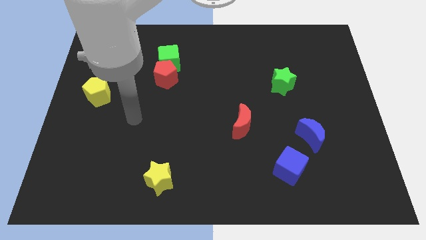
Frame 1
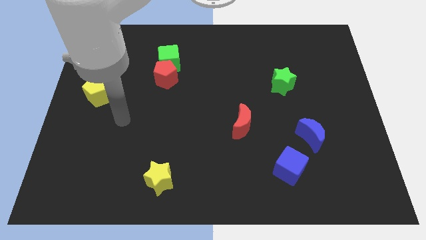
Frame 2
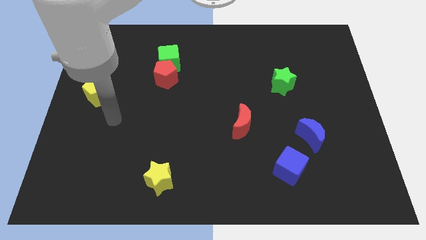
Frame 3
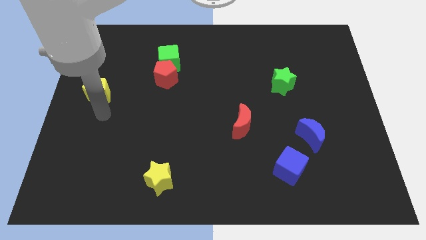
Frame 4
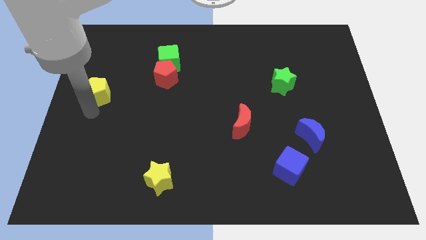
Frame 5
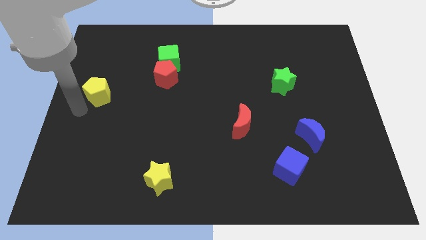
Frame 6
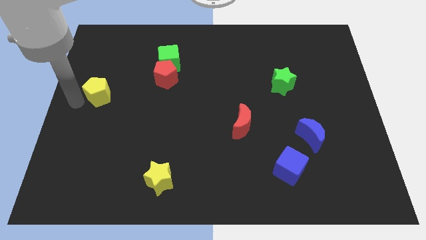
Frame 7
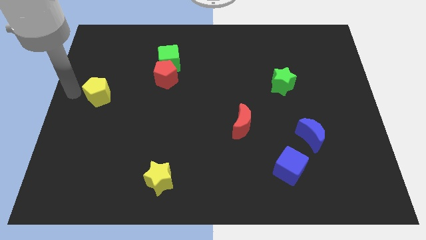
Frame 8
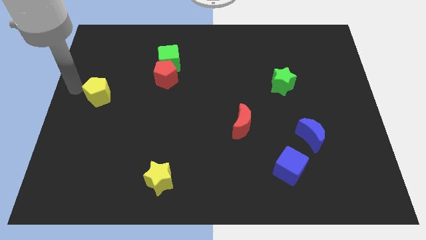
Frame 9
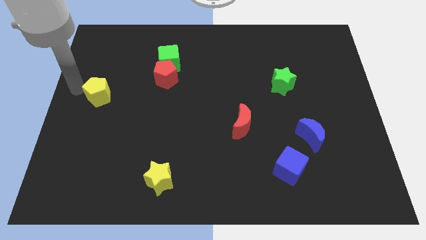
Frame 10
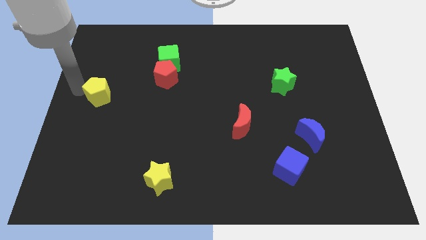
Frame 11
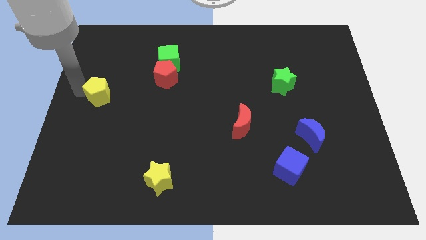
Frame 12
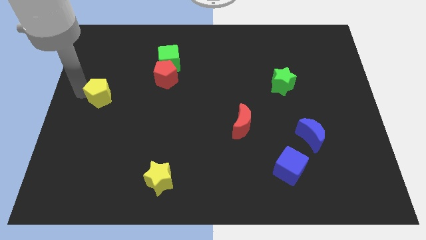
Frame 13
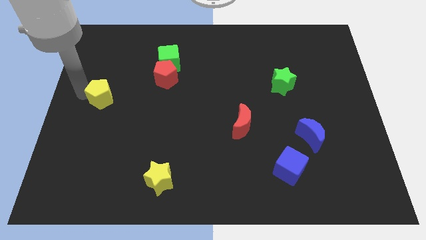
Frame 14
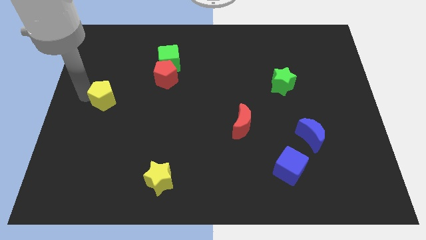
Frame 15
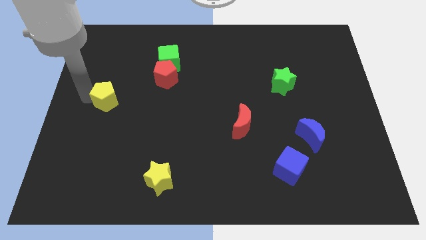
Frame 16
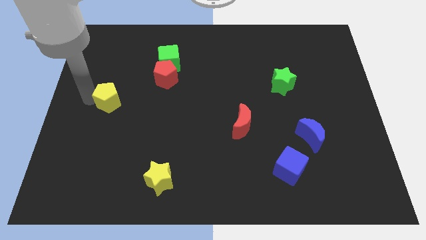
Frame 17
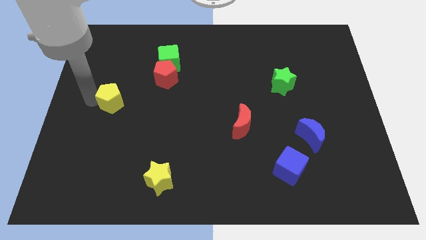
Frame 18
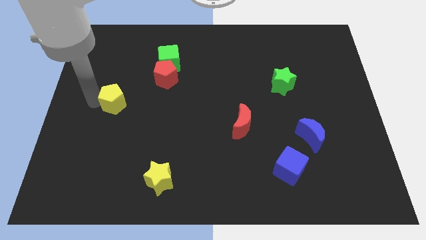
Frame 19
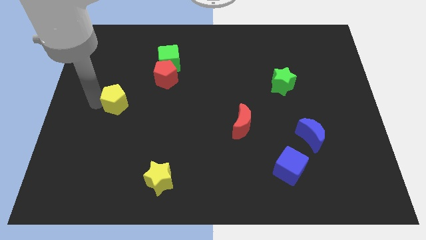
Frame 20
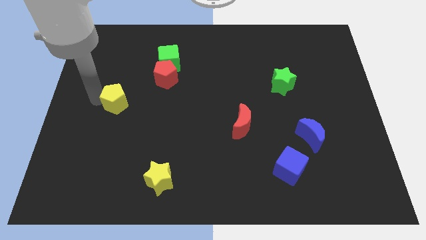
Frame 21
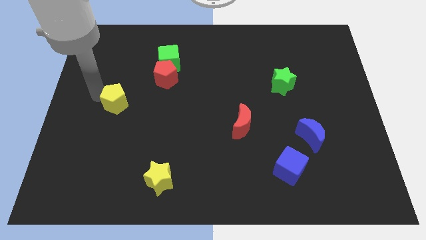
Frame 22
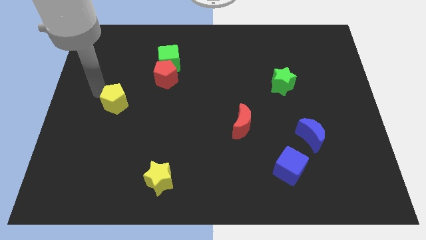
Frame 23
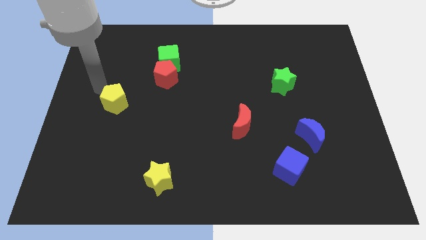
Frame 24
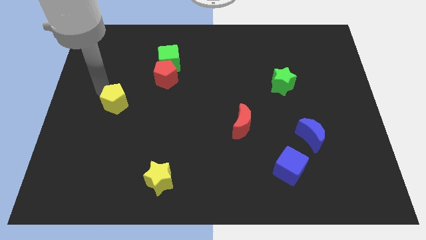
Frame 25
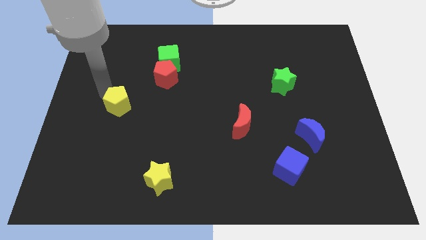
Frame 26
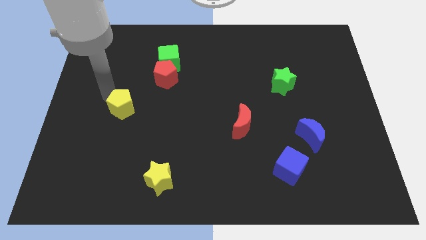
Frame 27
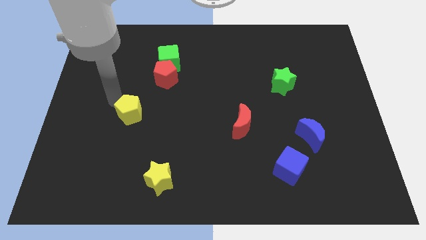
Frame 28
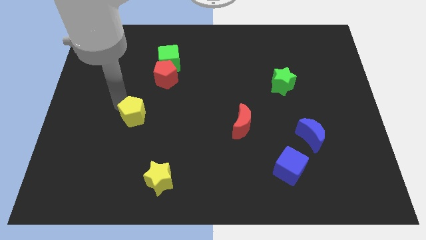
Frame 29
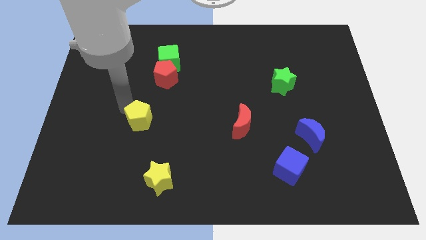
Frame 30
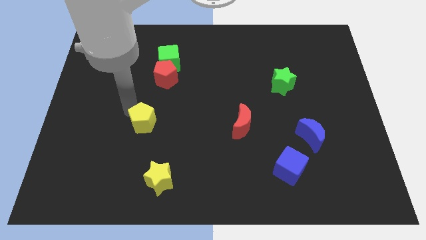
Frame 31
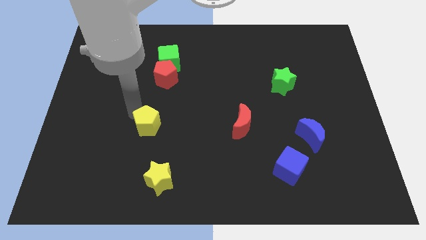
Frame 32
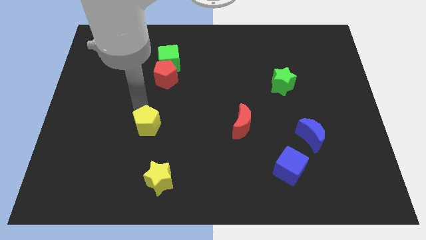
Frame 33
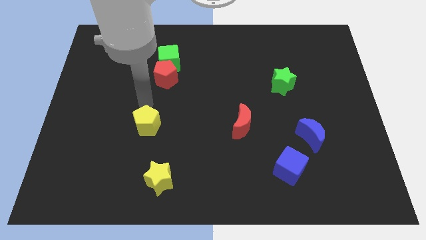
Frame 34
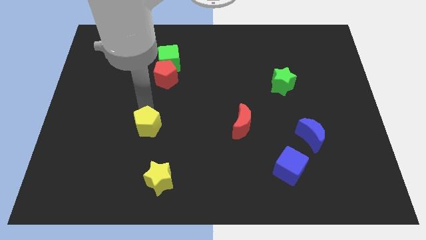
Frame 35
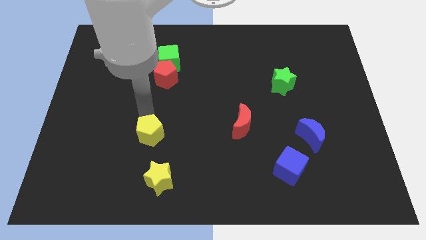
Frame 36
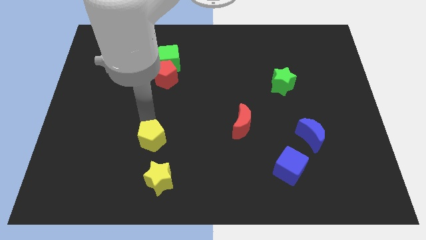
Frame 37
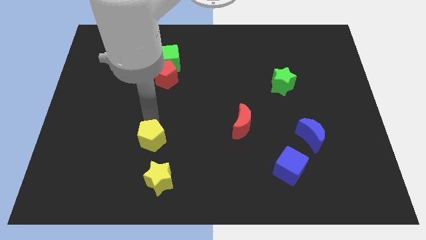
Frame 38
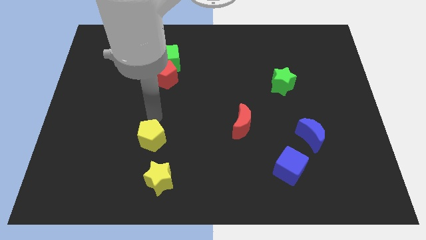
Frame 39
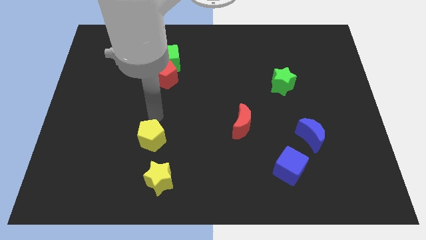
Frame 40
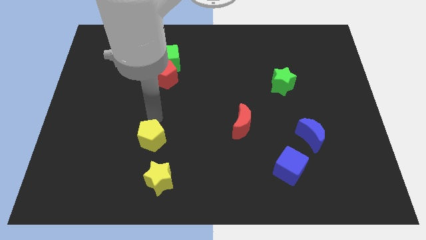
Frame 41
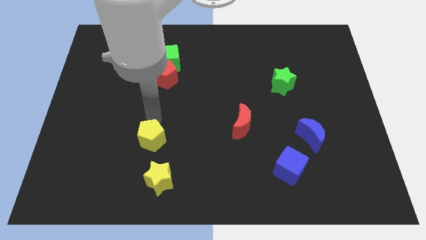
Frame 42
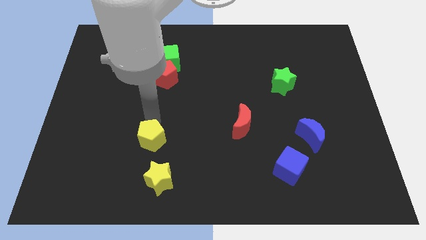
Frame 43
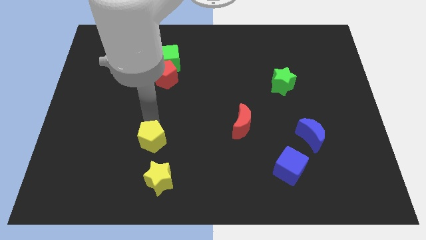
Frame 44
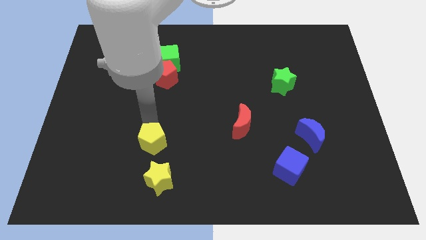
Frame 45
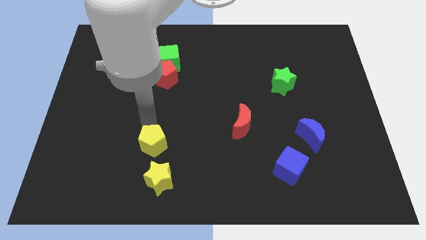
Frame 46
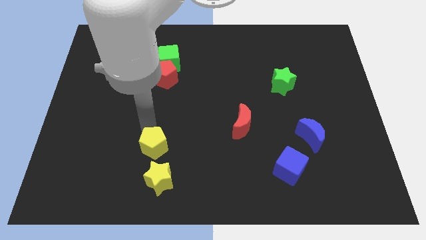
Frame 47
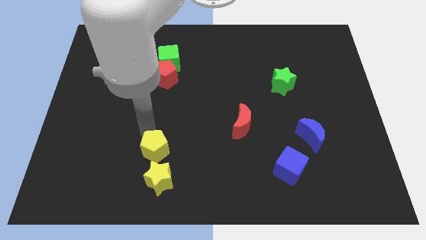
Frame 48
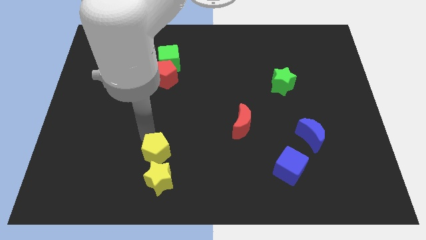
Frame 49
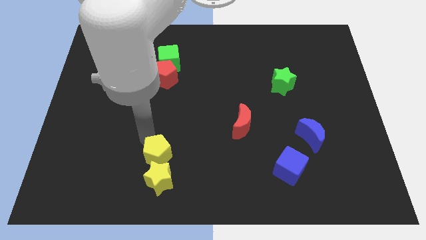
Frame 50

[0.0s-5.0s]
push the yellow pentagon close to the yellow star

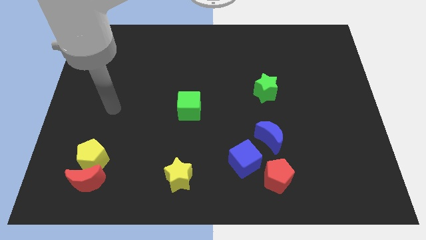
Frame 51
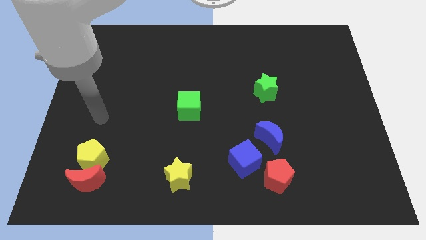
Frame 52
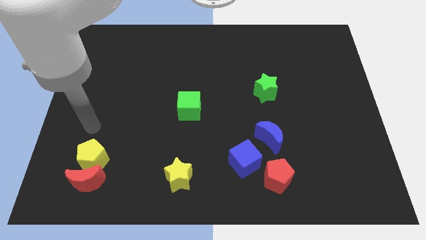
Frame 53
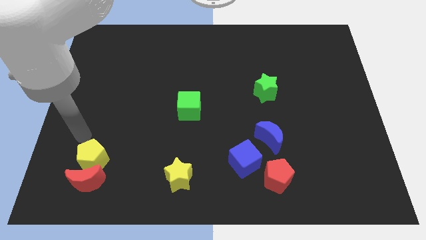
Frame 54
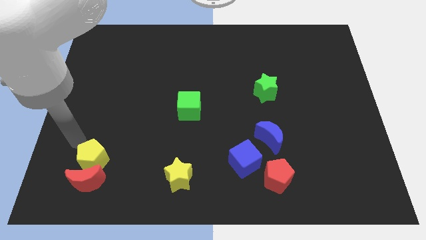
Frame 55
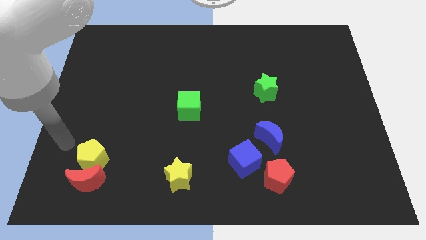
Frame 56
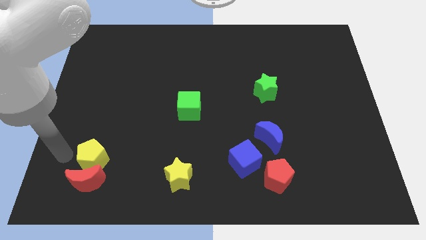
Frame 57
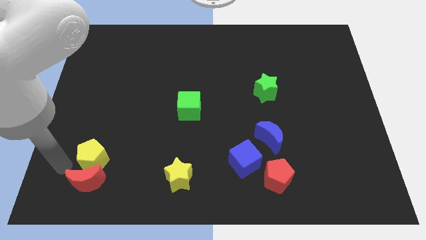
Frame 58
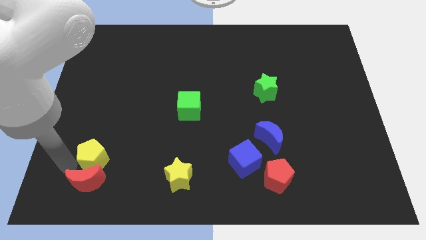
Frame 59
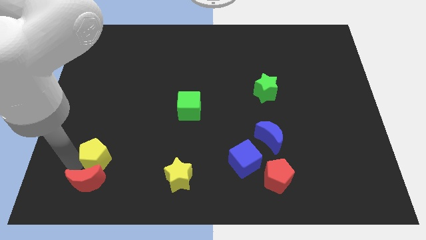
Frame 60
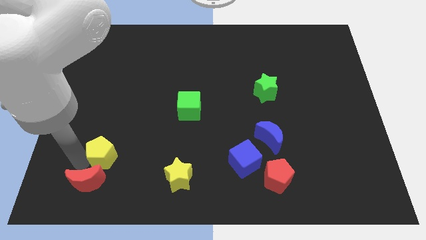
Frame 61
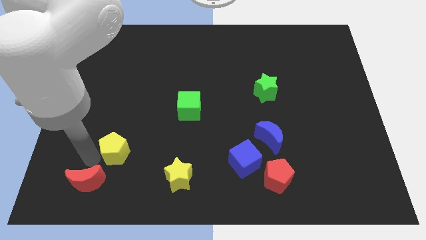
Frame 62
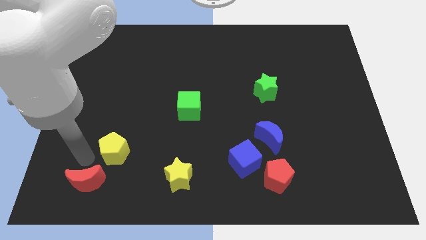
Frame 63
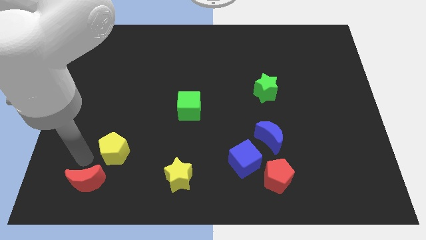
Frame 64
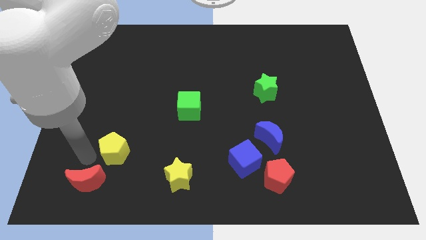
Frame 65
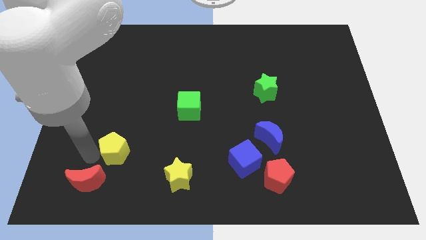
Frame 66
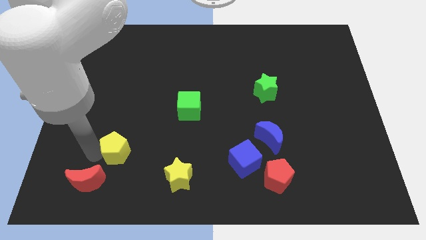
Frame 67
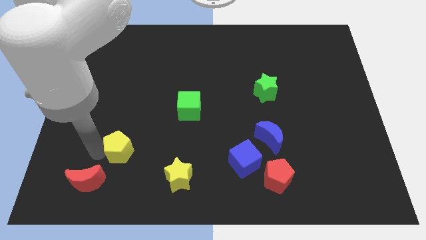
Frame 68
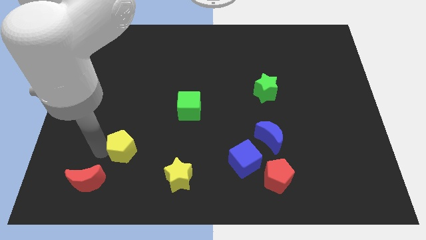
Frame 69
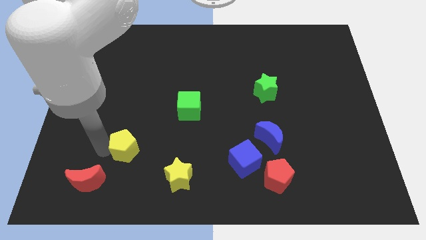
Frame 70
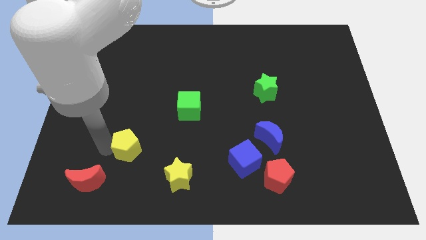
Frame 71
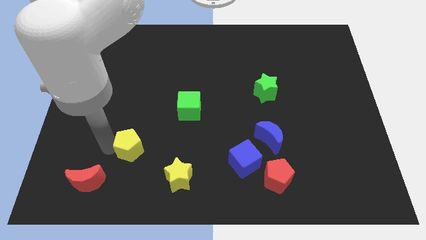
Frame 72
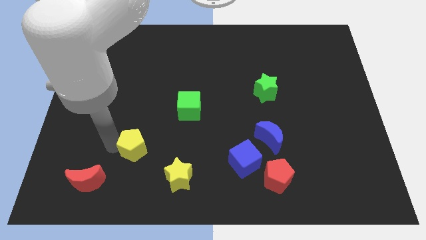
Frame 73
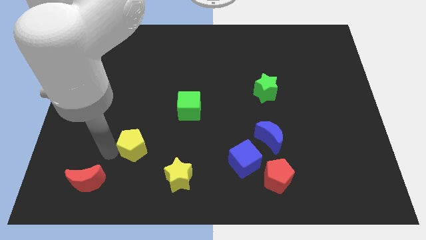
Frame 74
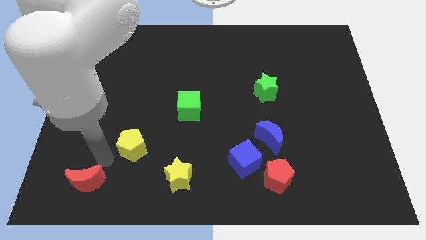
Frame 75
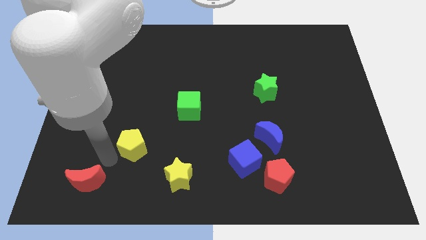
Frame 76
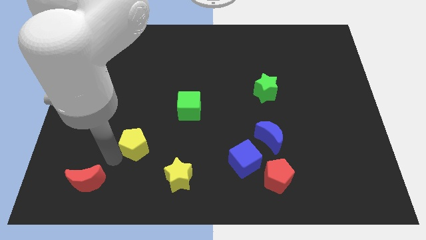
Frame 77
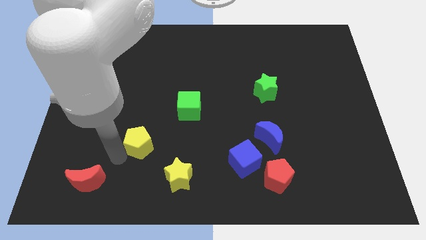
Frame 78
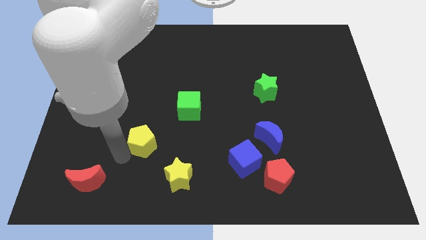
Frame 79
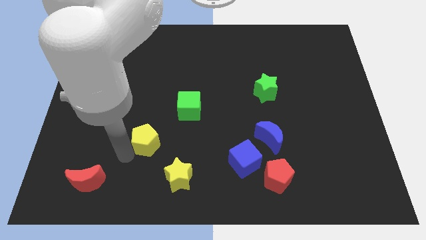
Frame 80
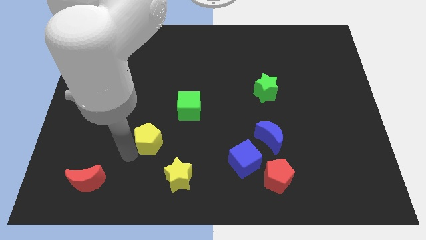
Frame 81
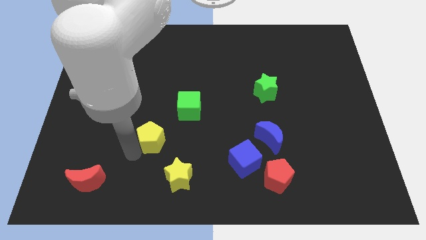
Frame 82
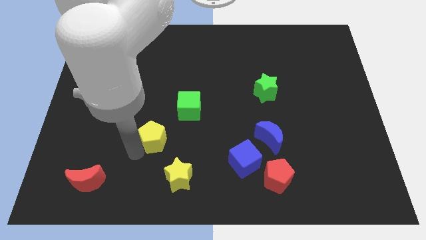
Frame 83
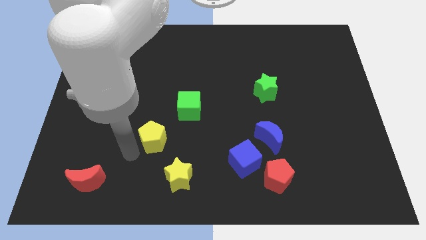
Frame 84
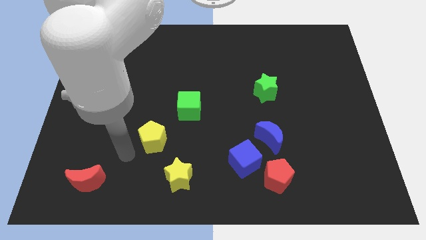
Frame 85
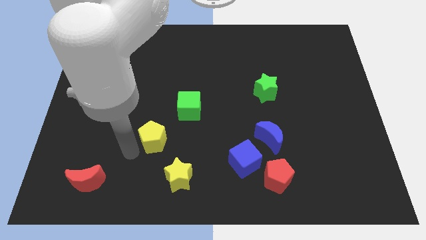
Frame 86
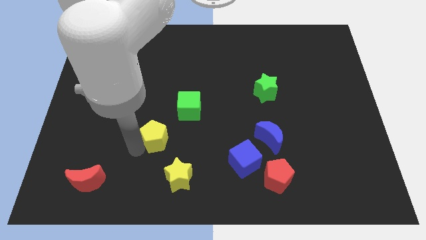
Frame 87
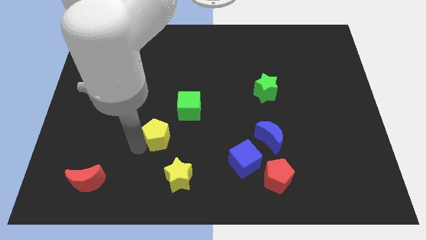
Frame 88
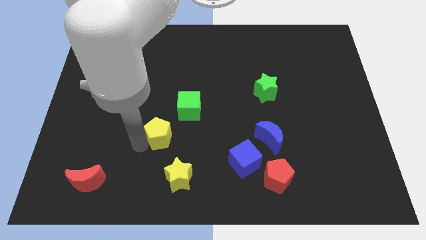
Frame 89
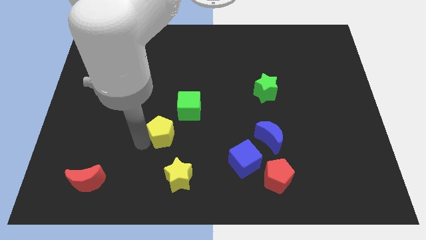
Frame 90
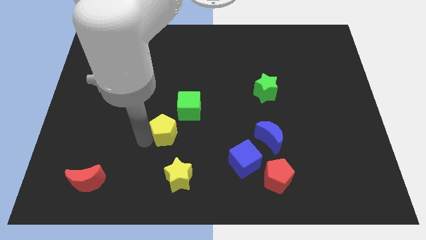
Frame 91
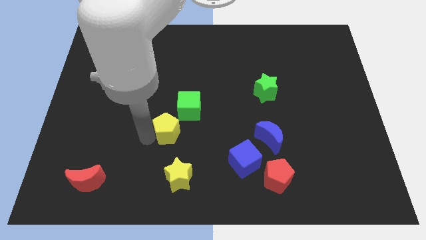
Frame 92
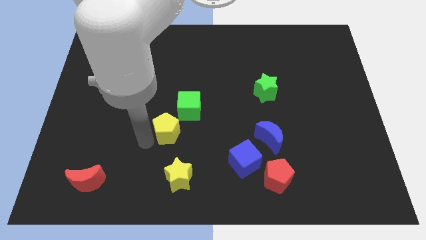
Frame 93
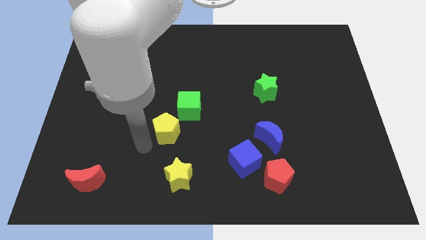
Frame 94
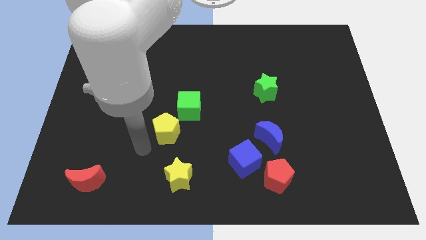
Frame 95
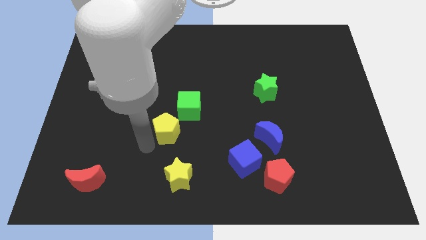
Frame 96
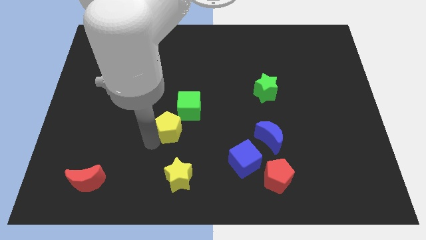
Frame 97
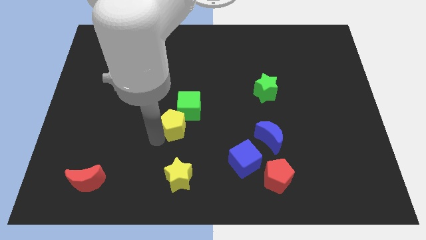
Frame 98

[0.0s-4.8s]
push the yellow pentagon towards the green cube
